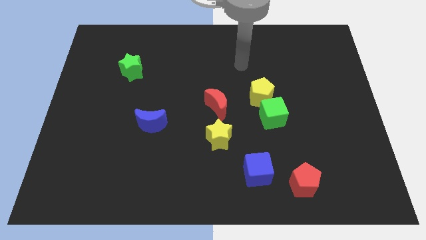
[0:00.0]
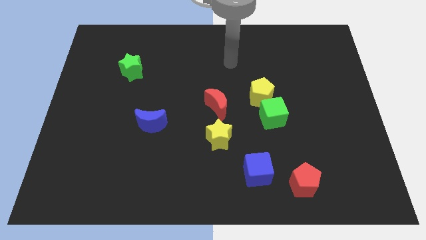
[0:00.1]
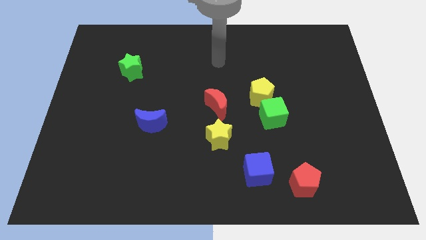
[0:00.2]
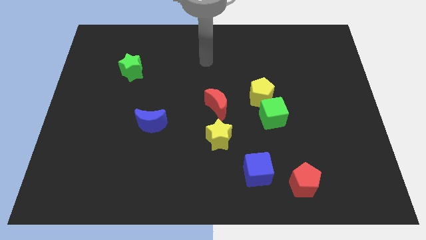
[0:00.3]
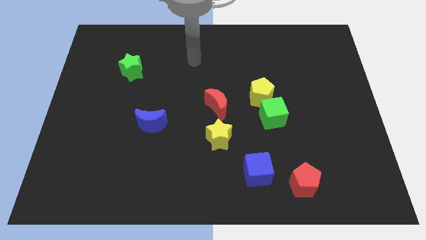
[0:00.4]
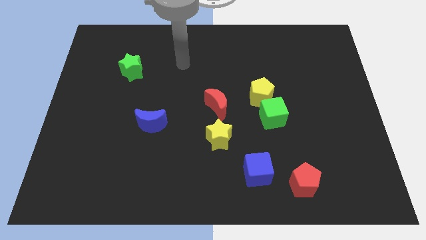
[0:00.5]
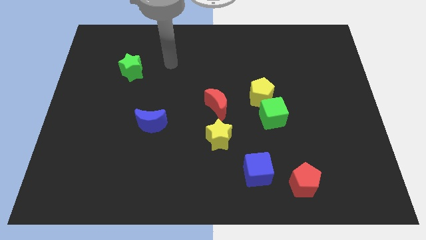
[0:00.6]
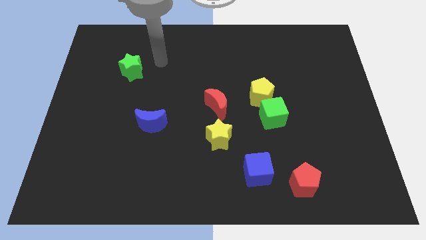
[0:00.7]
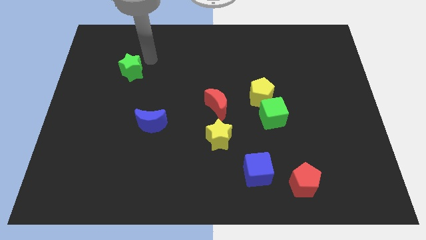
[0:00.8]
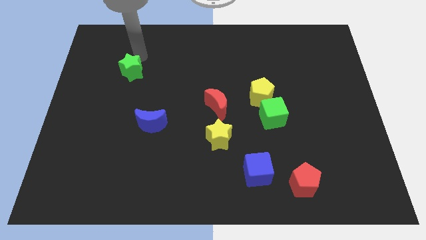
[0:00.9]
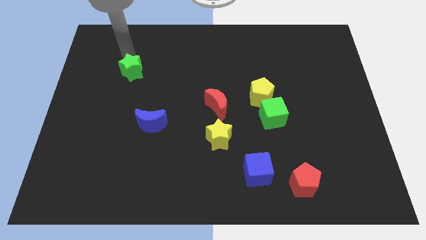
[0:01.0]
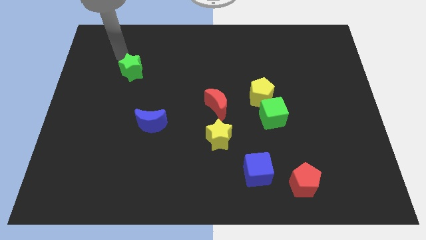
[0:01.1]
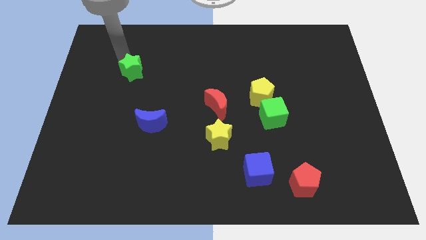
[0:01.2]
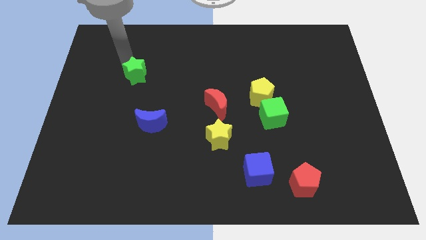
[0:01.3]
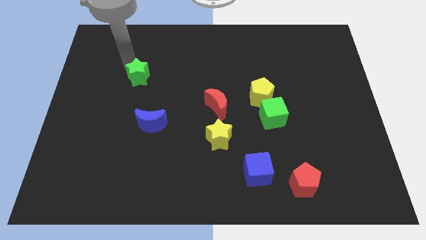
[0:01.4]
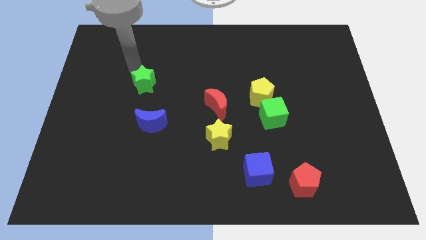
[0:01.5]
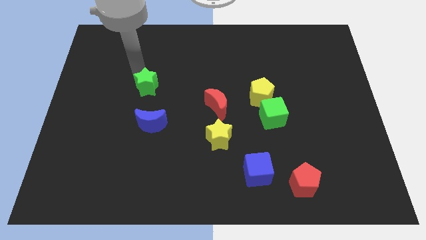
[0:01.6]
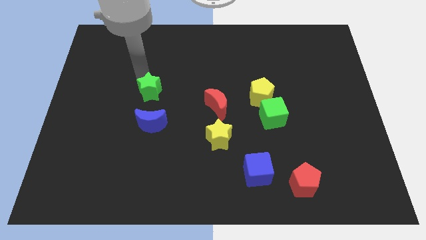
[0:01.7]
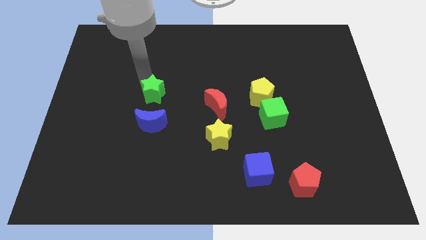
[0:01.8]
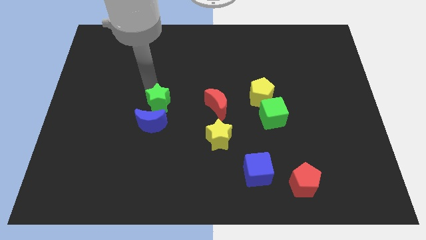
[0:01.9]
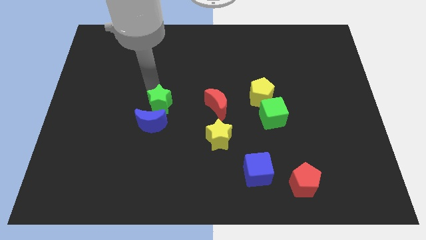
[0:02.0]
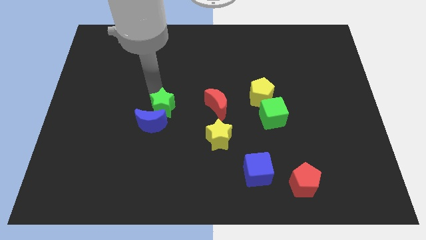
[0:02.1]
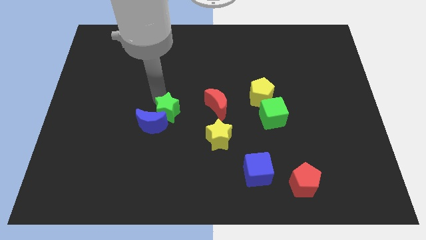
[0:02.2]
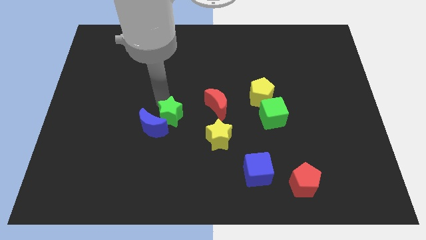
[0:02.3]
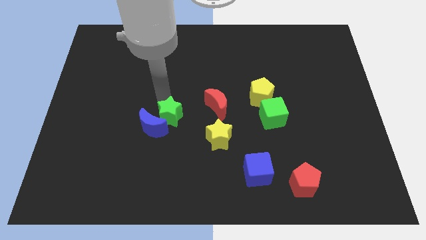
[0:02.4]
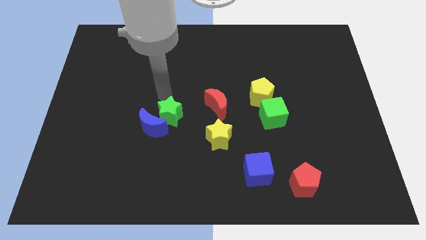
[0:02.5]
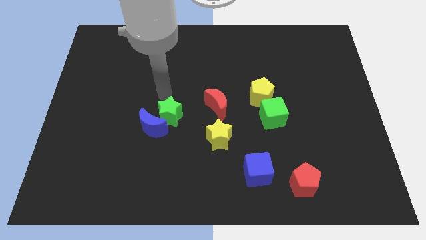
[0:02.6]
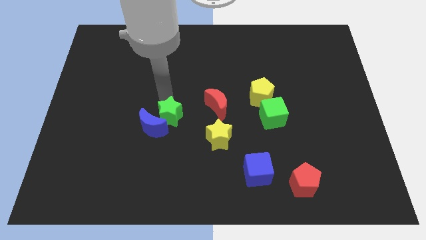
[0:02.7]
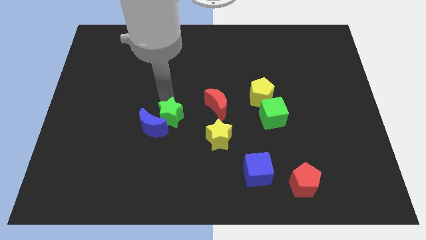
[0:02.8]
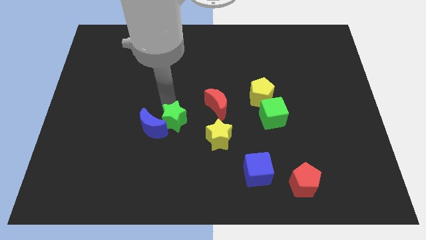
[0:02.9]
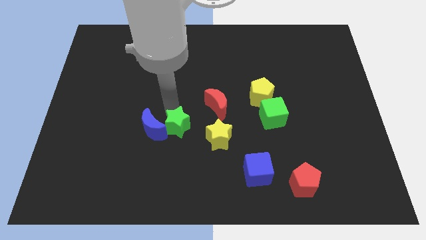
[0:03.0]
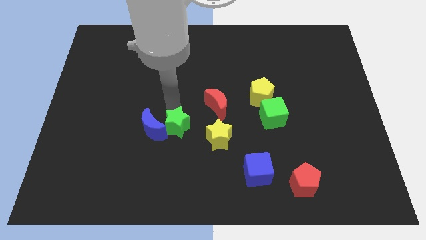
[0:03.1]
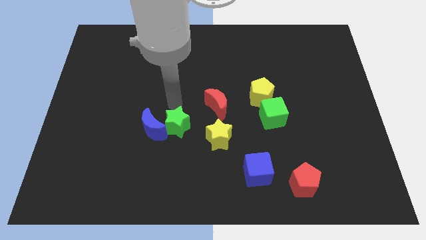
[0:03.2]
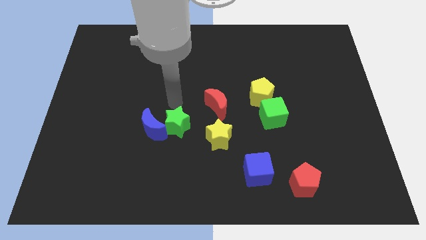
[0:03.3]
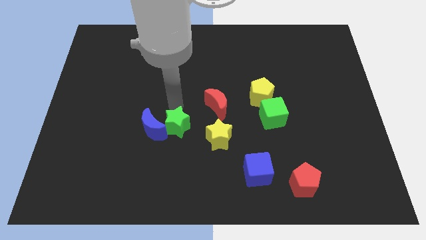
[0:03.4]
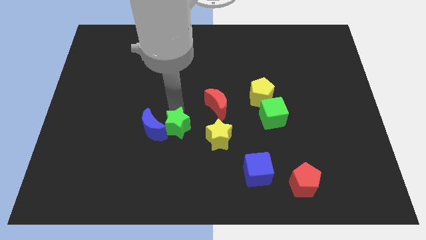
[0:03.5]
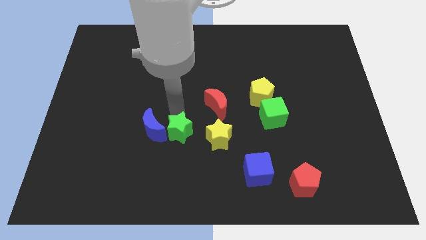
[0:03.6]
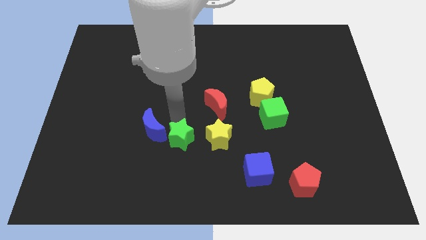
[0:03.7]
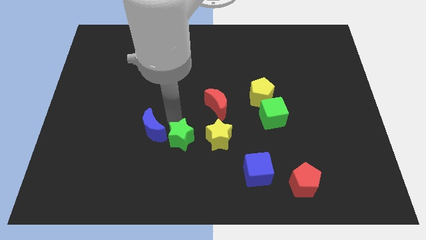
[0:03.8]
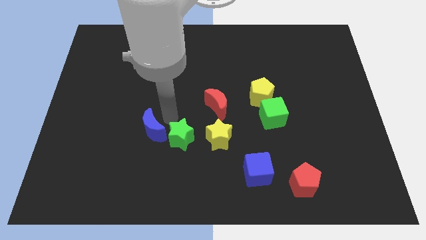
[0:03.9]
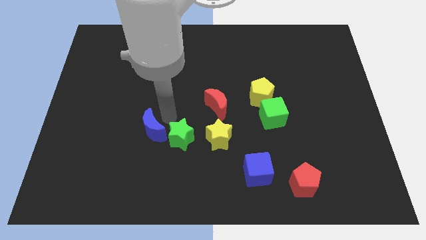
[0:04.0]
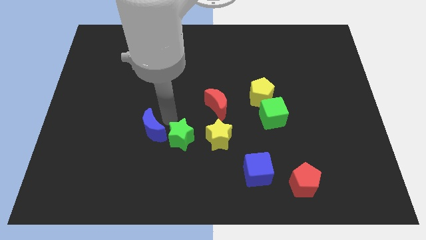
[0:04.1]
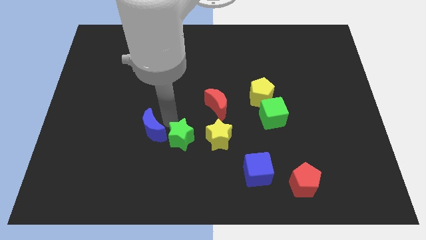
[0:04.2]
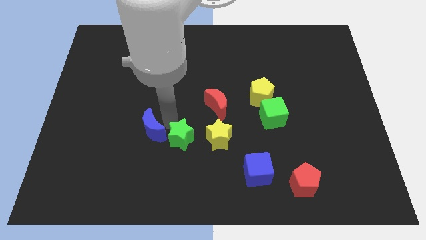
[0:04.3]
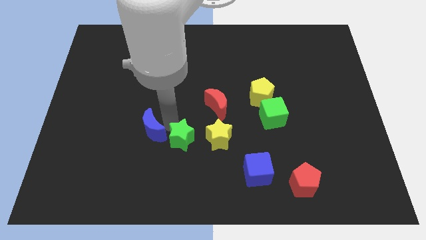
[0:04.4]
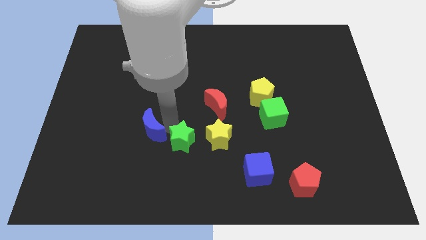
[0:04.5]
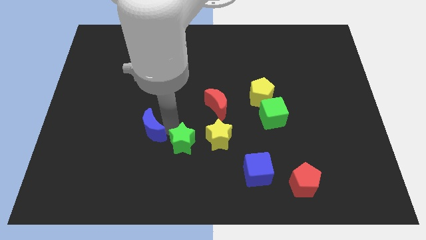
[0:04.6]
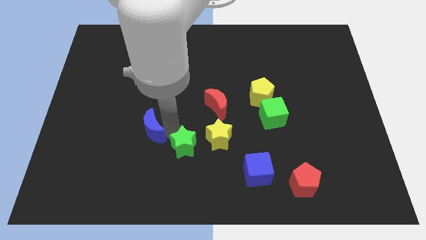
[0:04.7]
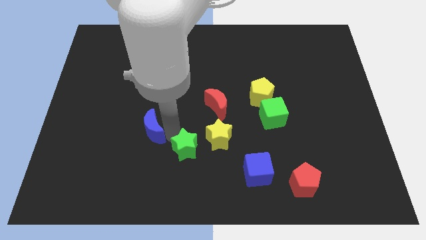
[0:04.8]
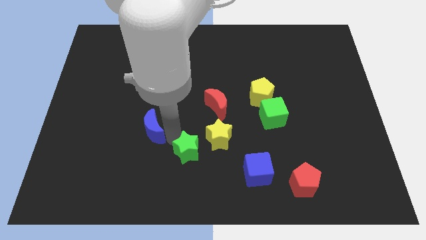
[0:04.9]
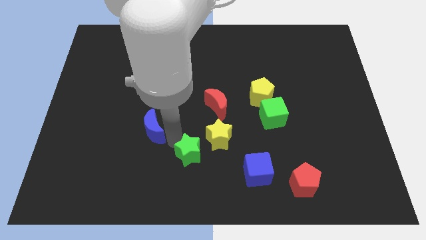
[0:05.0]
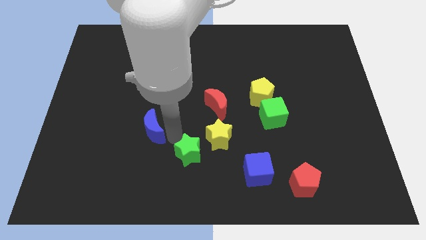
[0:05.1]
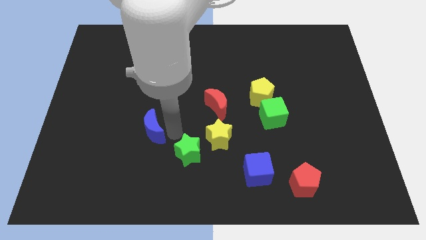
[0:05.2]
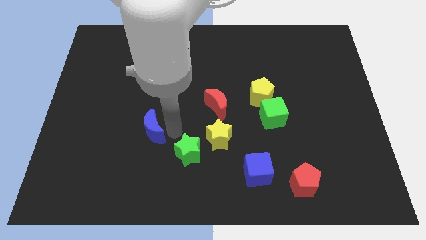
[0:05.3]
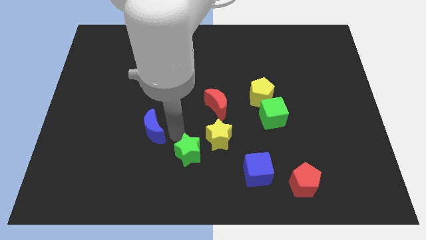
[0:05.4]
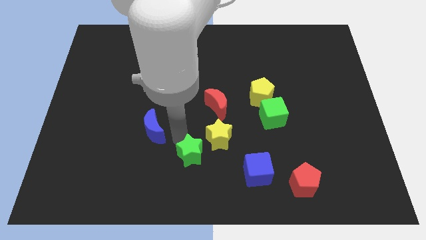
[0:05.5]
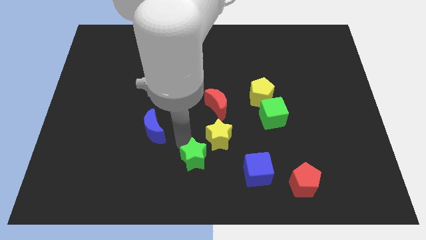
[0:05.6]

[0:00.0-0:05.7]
push the green star to the bottom
